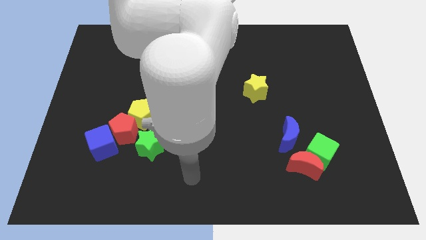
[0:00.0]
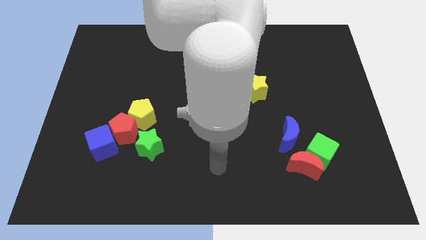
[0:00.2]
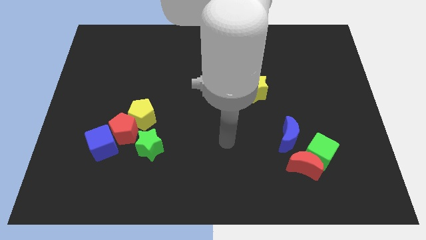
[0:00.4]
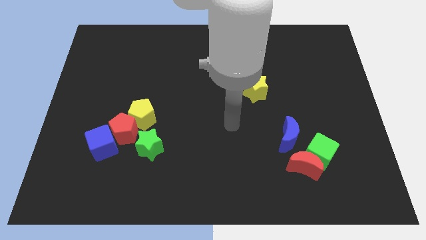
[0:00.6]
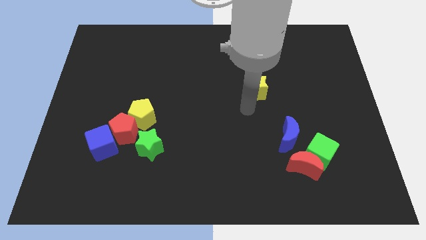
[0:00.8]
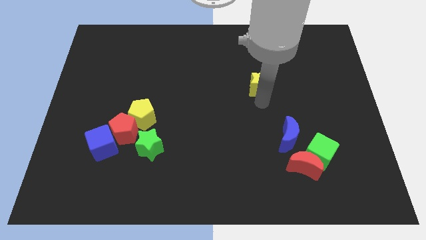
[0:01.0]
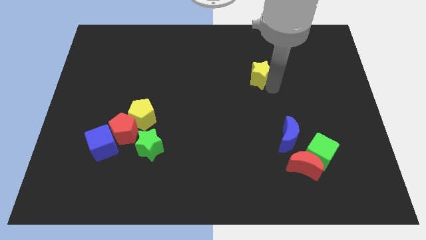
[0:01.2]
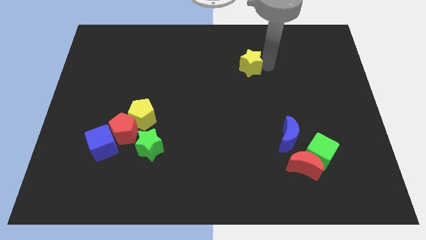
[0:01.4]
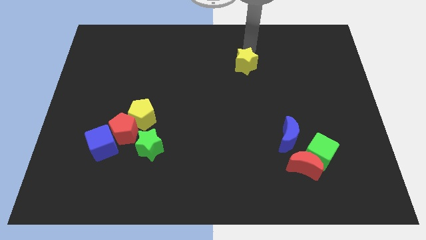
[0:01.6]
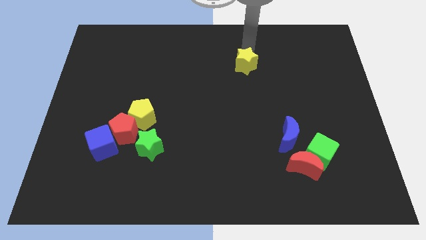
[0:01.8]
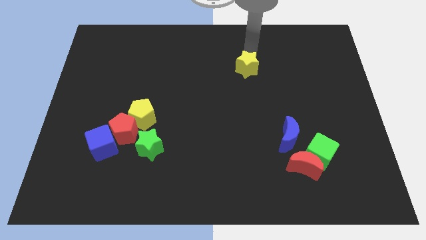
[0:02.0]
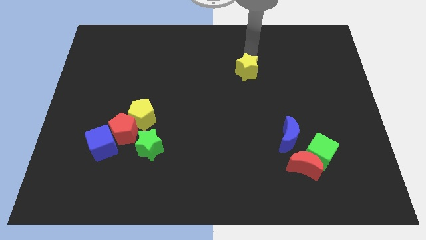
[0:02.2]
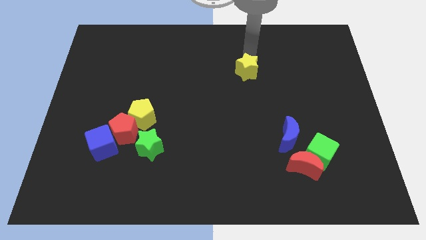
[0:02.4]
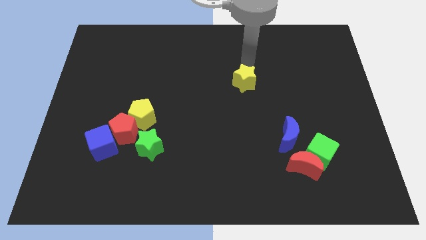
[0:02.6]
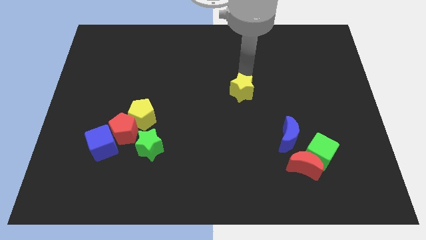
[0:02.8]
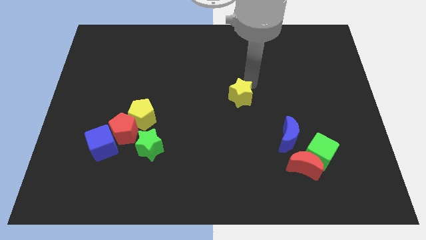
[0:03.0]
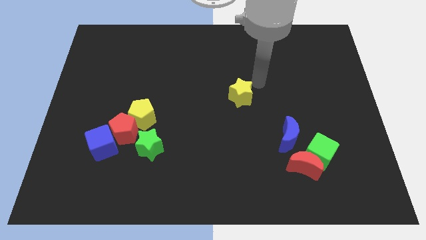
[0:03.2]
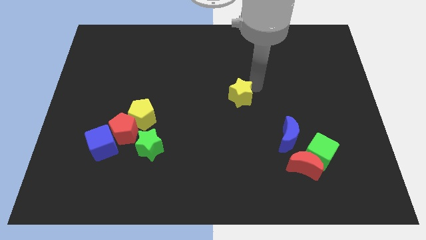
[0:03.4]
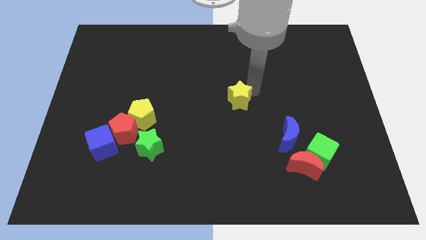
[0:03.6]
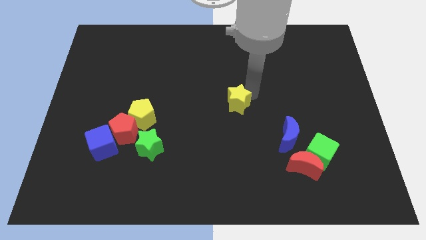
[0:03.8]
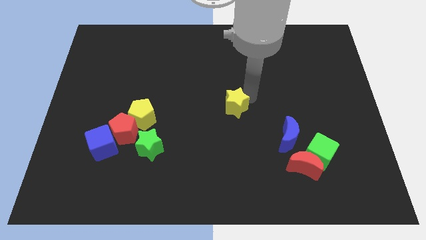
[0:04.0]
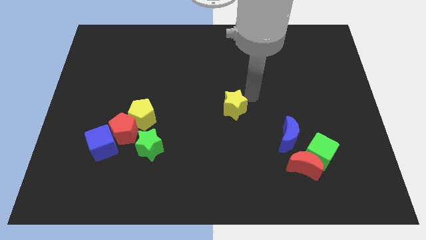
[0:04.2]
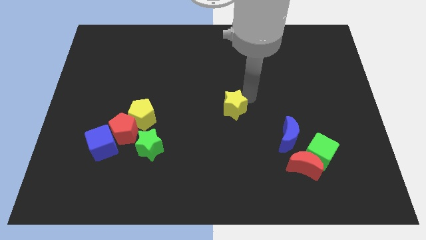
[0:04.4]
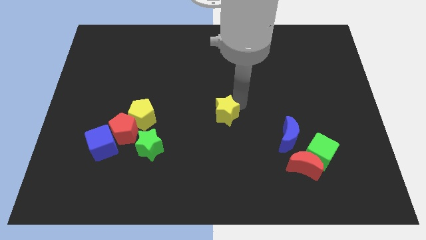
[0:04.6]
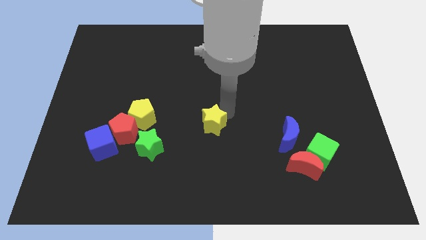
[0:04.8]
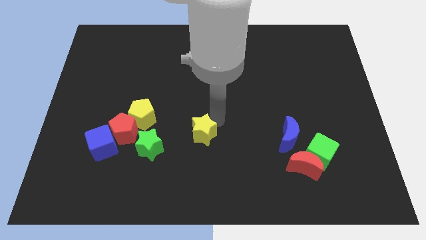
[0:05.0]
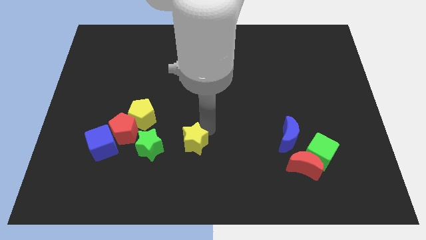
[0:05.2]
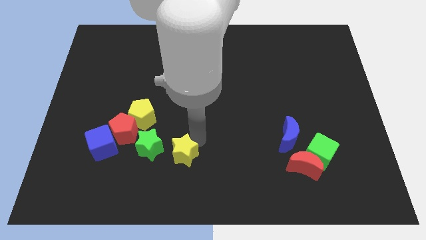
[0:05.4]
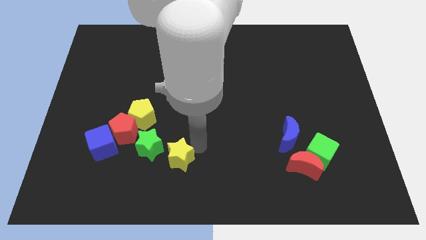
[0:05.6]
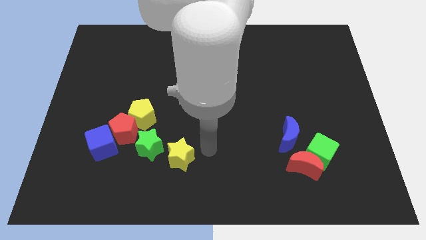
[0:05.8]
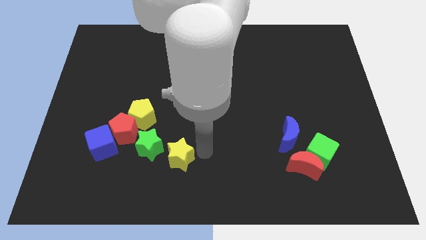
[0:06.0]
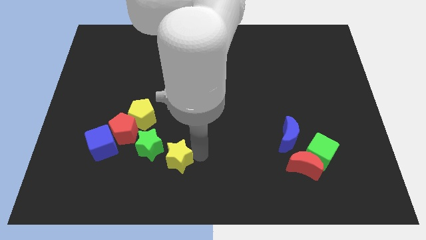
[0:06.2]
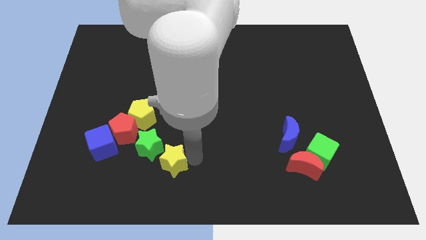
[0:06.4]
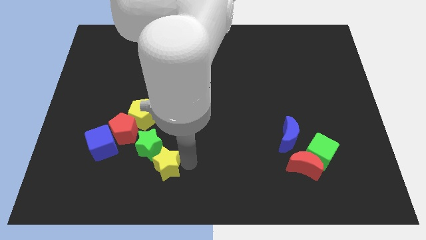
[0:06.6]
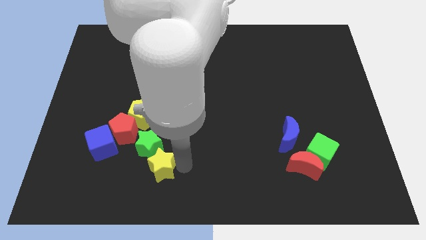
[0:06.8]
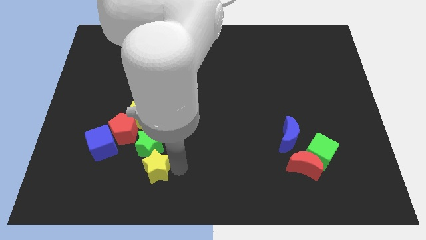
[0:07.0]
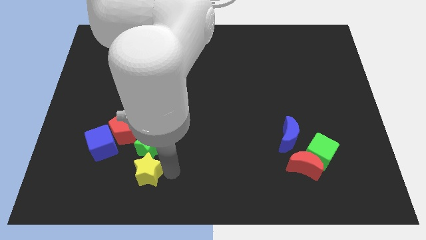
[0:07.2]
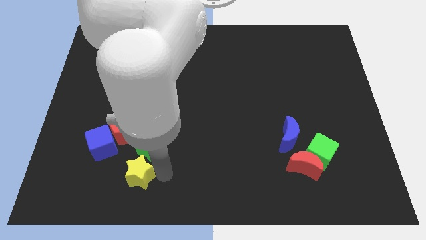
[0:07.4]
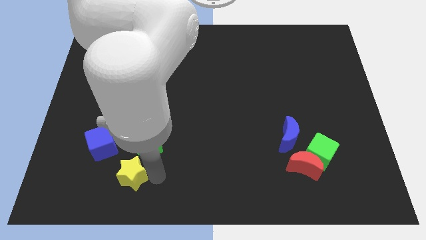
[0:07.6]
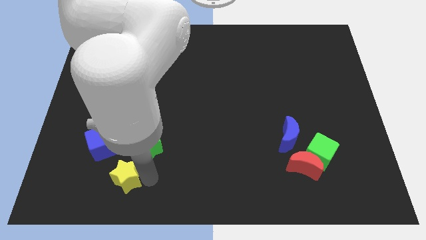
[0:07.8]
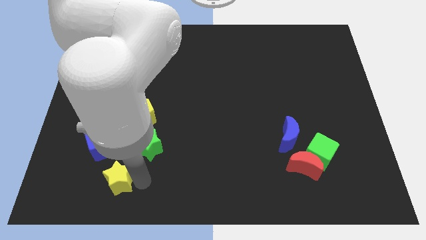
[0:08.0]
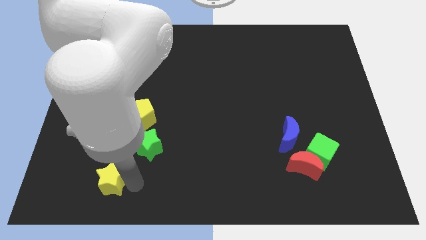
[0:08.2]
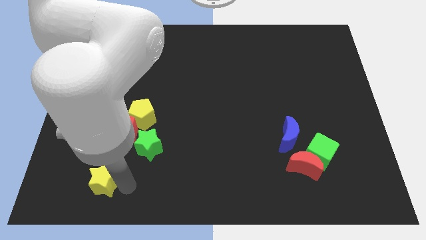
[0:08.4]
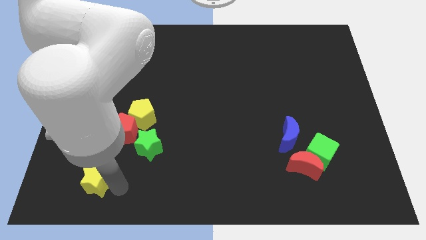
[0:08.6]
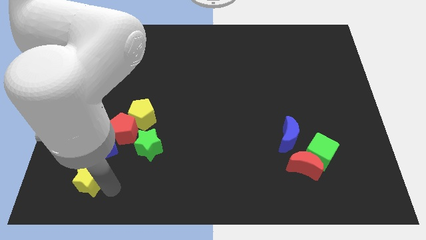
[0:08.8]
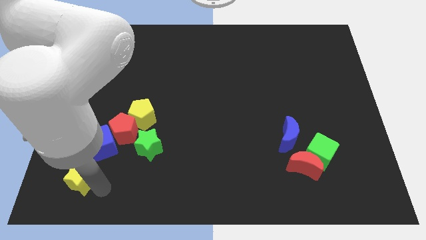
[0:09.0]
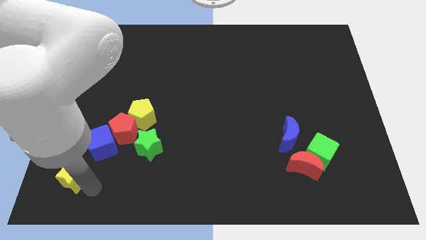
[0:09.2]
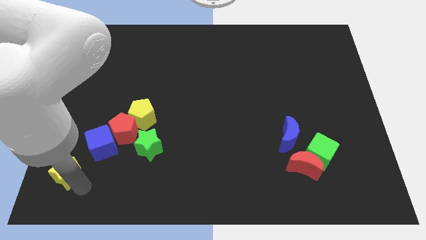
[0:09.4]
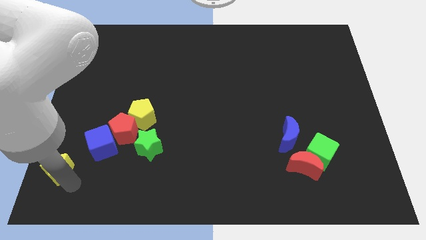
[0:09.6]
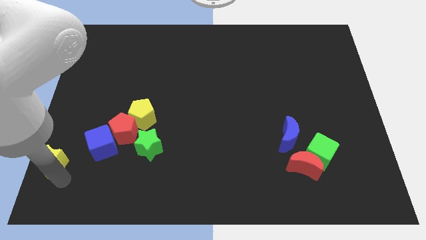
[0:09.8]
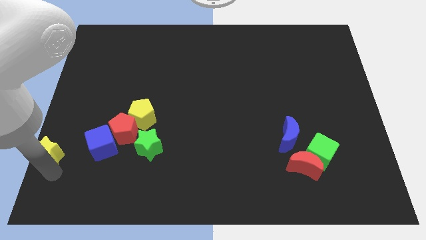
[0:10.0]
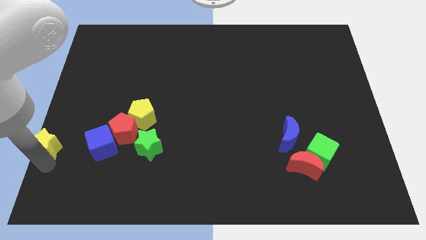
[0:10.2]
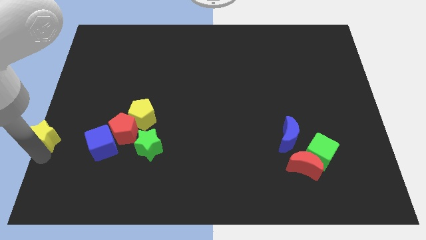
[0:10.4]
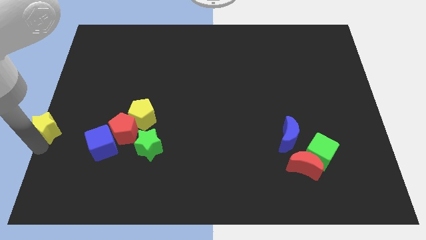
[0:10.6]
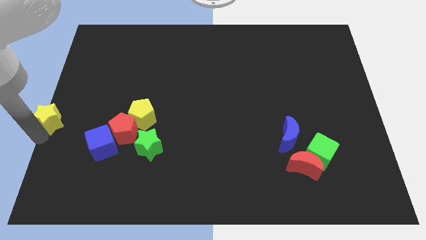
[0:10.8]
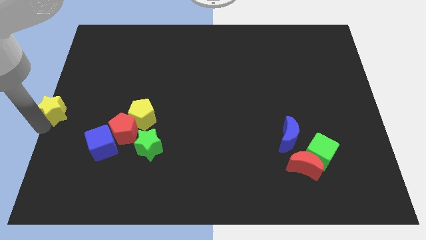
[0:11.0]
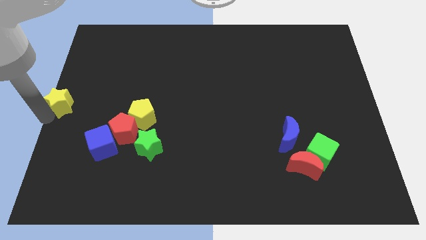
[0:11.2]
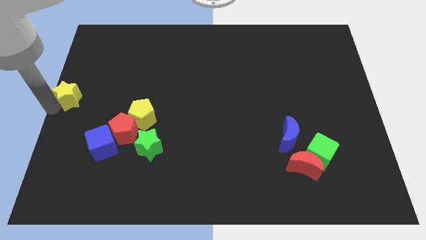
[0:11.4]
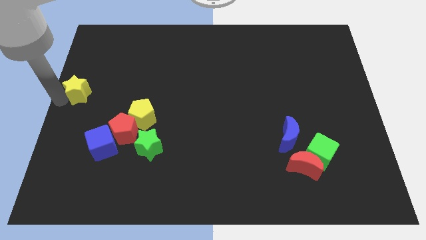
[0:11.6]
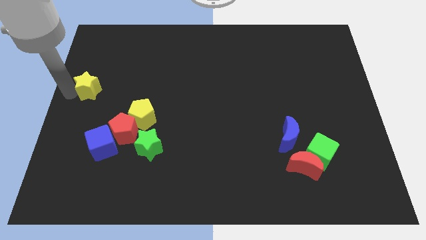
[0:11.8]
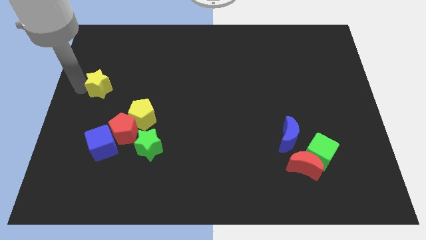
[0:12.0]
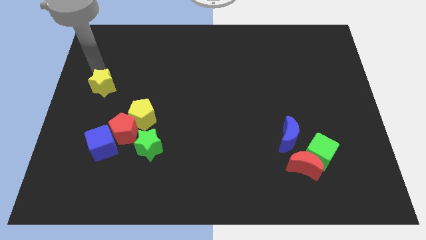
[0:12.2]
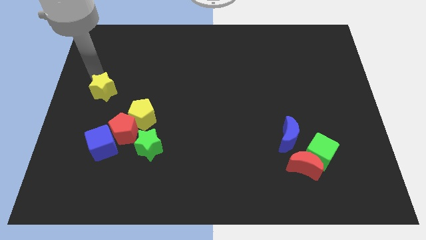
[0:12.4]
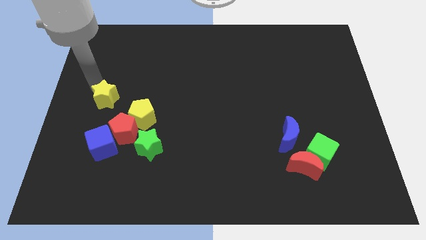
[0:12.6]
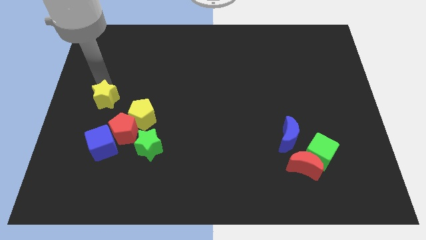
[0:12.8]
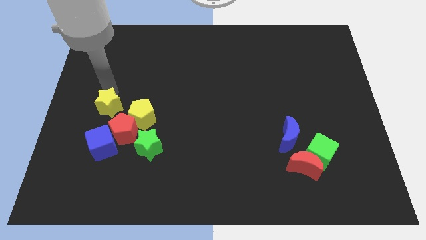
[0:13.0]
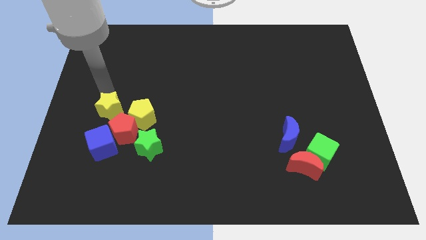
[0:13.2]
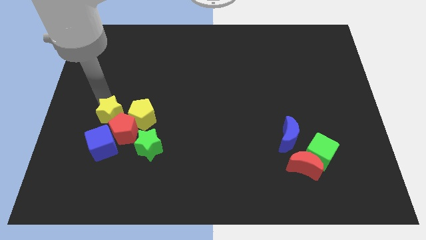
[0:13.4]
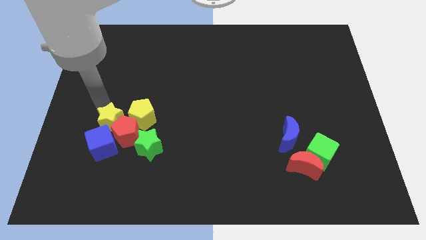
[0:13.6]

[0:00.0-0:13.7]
put the yellow star close to the blue cube
